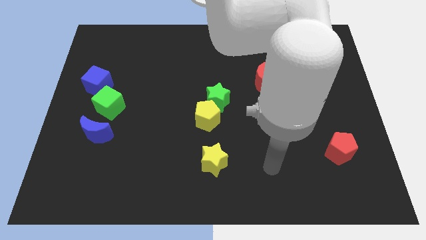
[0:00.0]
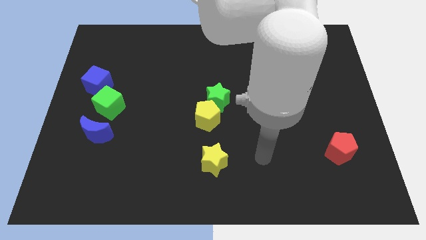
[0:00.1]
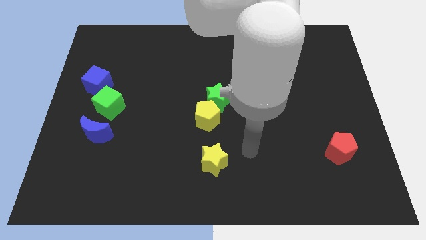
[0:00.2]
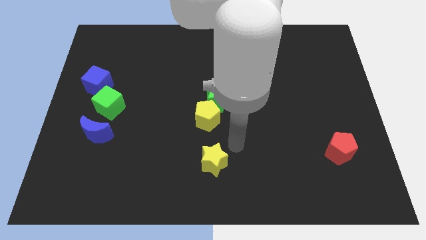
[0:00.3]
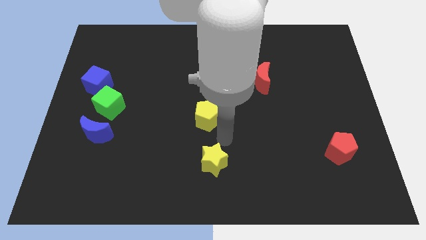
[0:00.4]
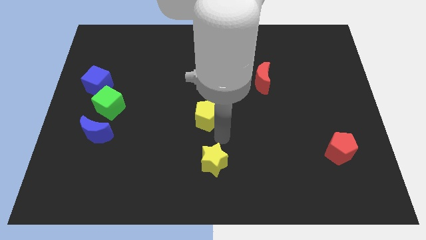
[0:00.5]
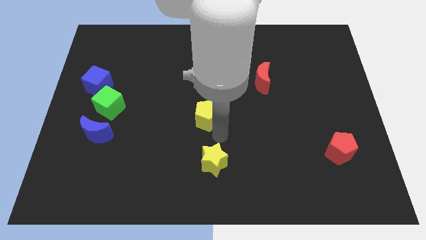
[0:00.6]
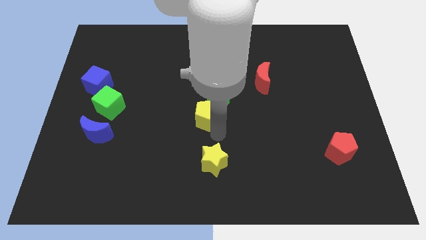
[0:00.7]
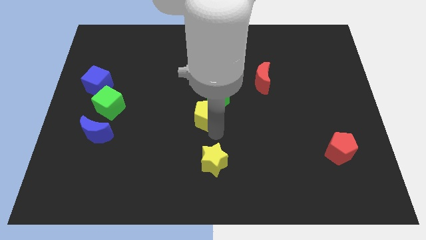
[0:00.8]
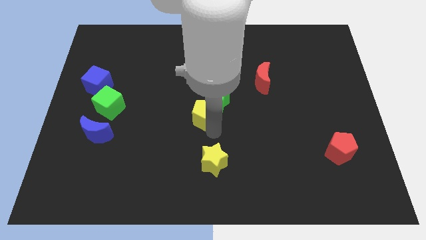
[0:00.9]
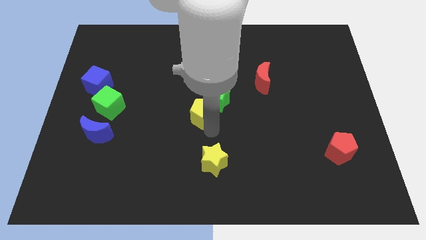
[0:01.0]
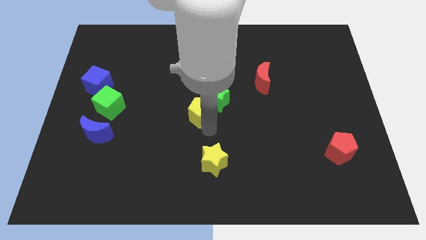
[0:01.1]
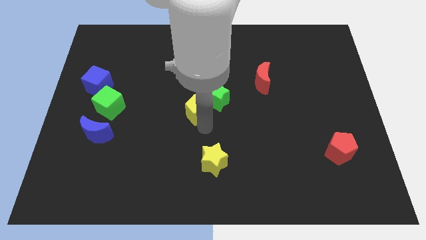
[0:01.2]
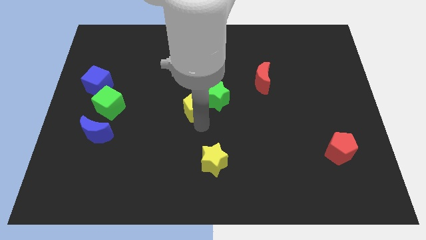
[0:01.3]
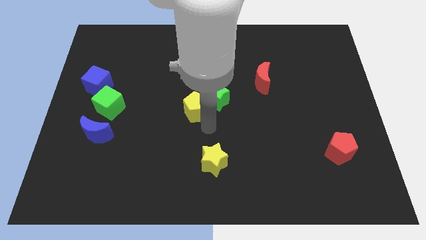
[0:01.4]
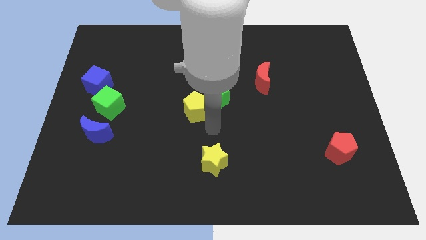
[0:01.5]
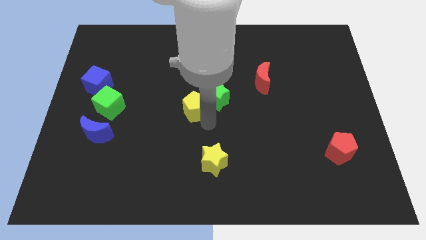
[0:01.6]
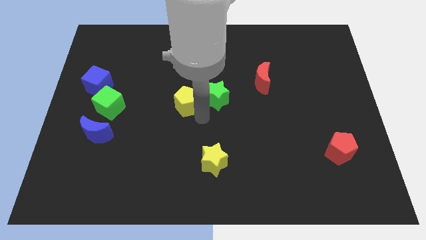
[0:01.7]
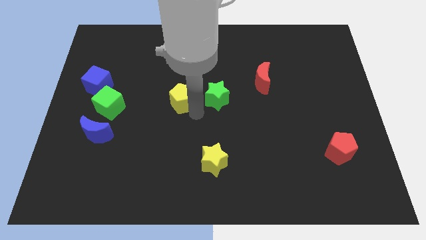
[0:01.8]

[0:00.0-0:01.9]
push the yellow pentagon up and left slightly

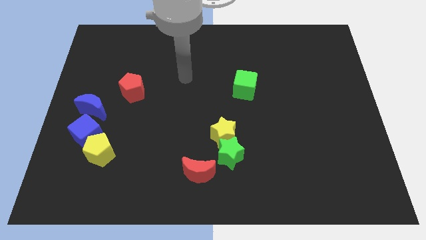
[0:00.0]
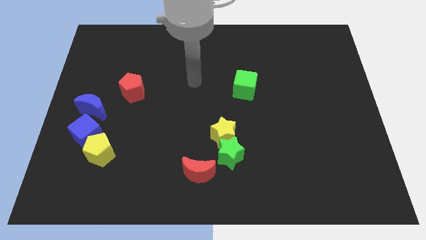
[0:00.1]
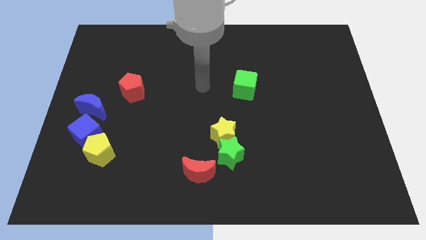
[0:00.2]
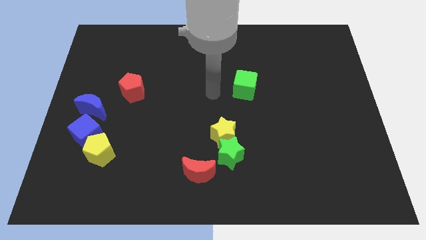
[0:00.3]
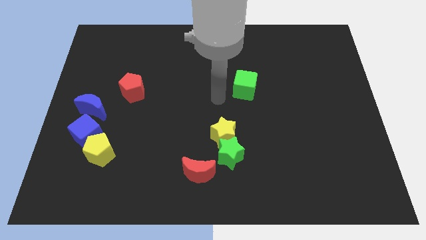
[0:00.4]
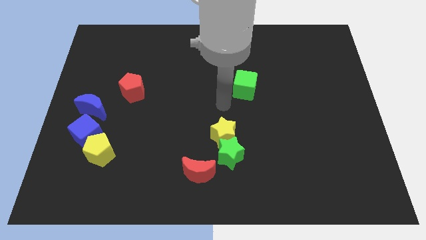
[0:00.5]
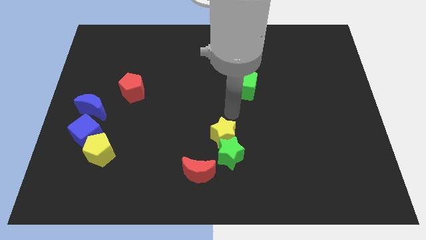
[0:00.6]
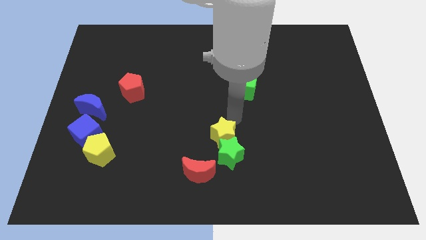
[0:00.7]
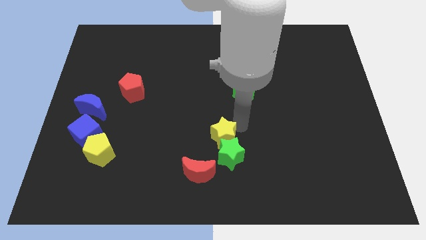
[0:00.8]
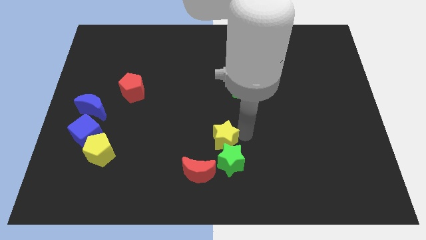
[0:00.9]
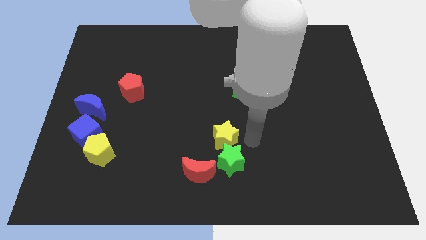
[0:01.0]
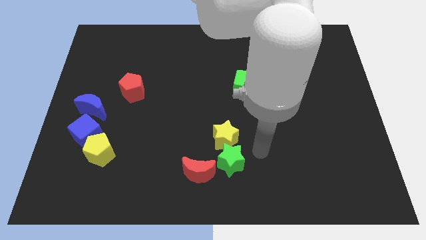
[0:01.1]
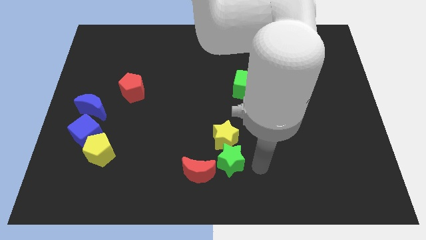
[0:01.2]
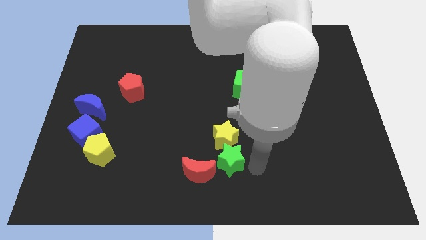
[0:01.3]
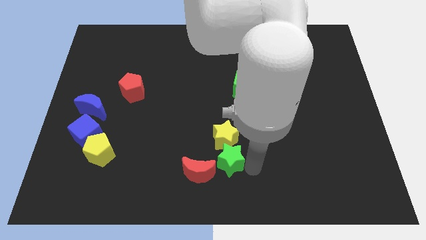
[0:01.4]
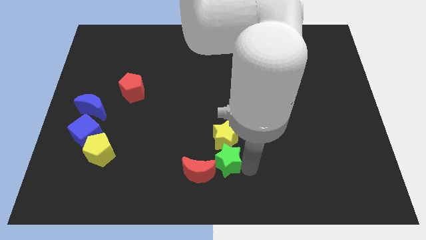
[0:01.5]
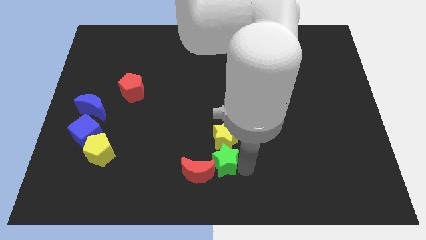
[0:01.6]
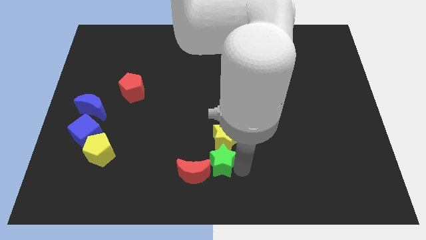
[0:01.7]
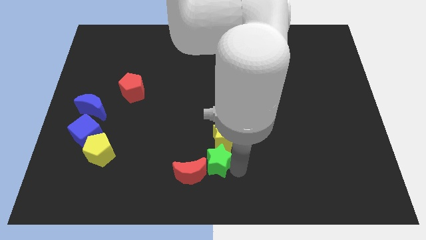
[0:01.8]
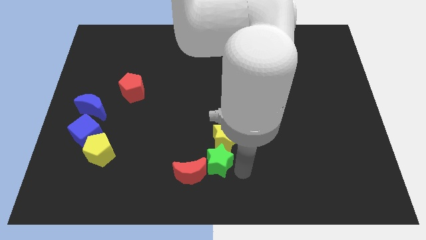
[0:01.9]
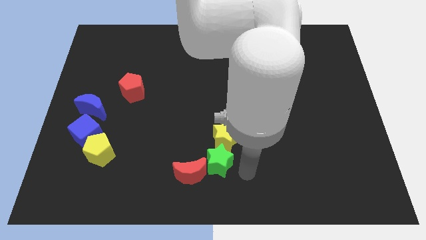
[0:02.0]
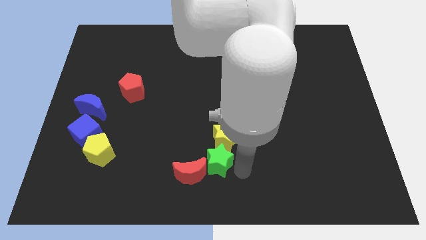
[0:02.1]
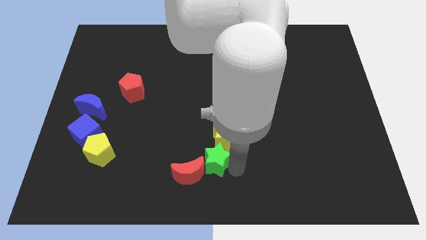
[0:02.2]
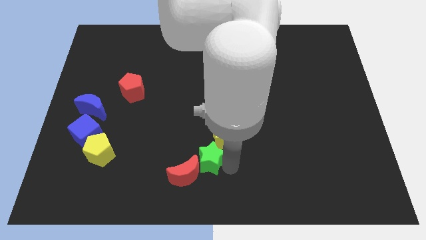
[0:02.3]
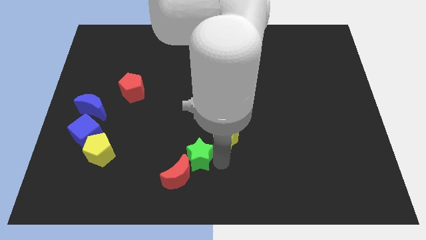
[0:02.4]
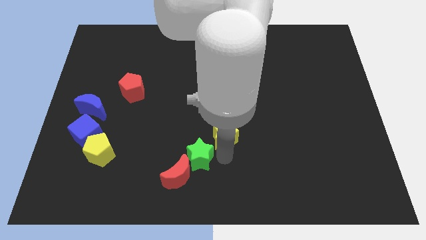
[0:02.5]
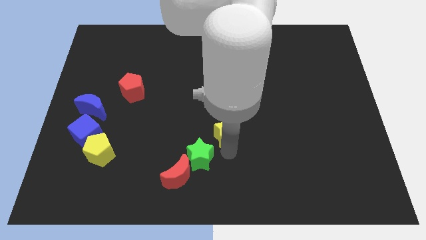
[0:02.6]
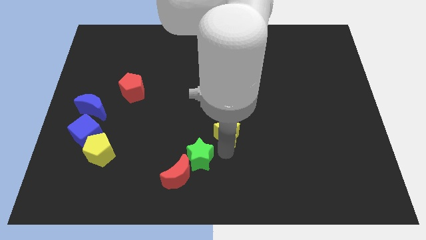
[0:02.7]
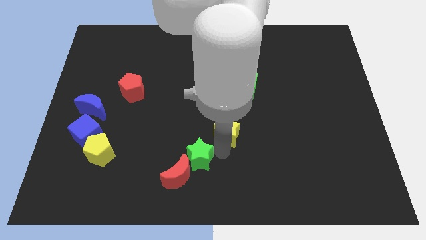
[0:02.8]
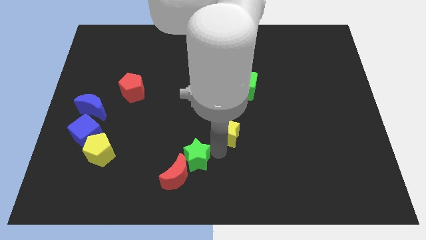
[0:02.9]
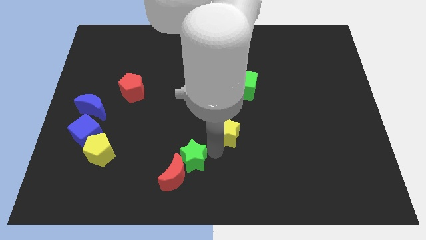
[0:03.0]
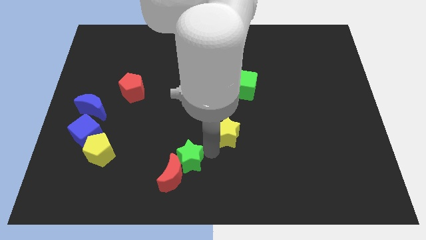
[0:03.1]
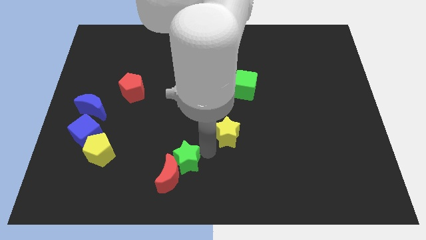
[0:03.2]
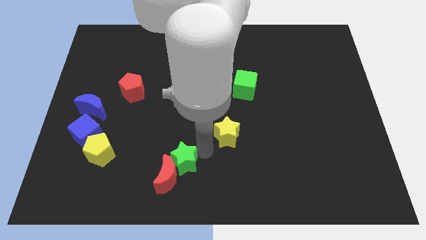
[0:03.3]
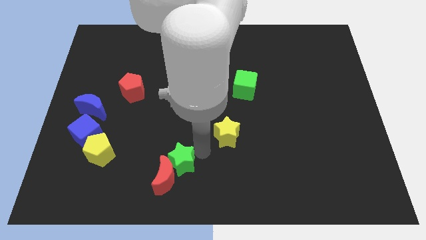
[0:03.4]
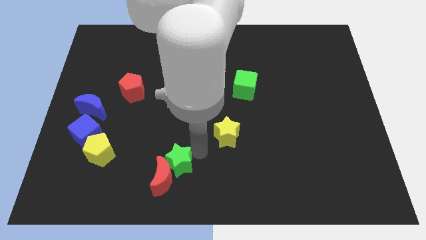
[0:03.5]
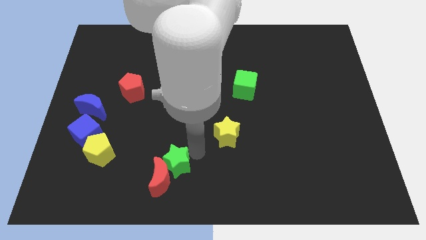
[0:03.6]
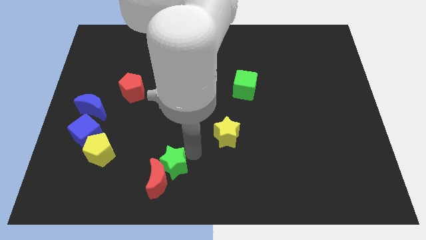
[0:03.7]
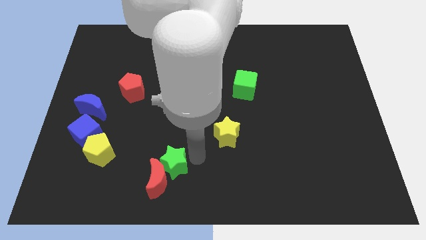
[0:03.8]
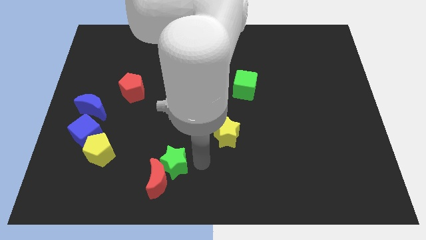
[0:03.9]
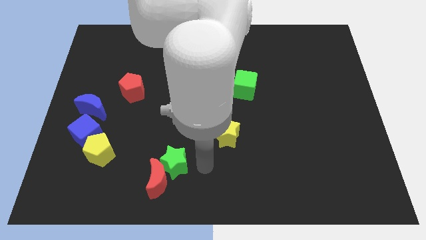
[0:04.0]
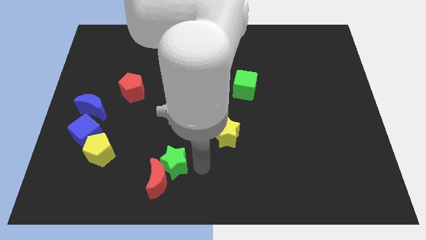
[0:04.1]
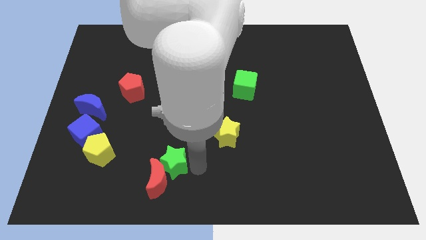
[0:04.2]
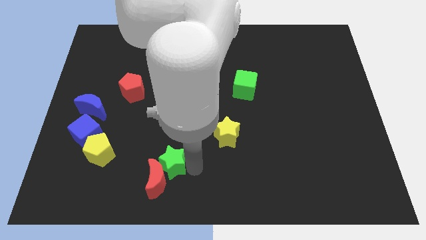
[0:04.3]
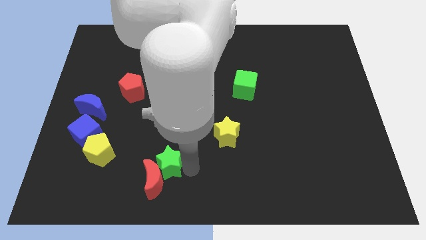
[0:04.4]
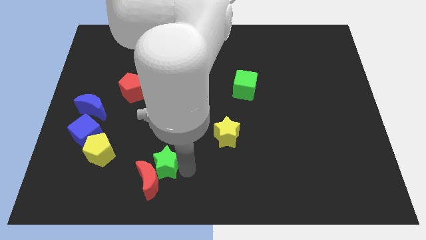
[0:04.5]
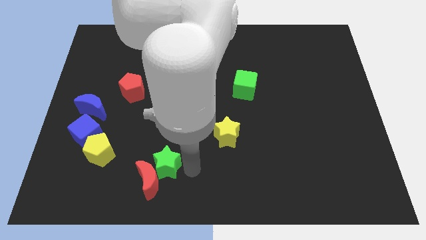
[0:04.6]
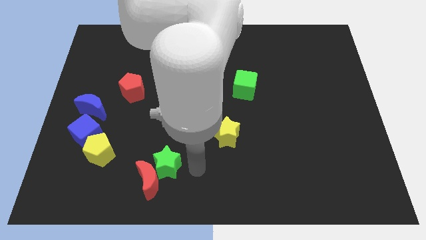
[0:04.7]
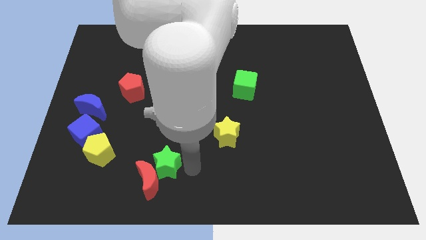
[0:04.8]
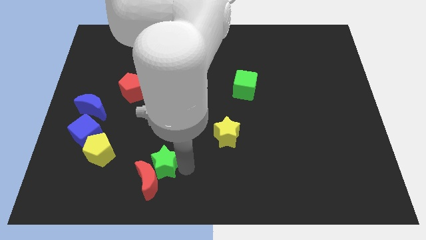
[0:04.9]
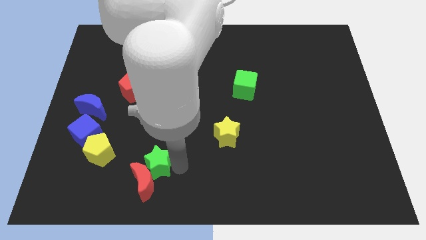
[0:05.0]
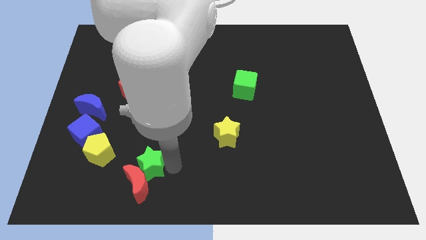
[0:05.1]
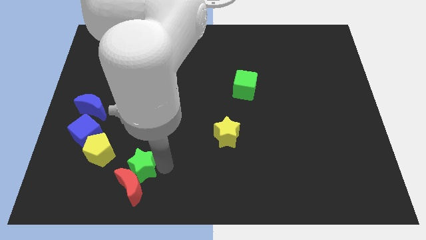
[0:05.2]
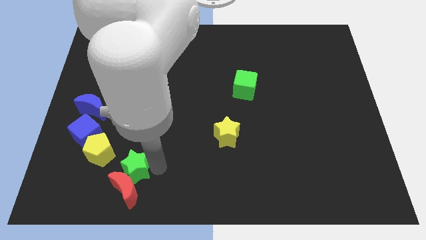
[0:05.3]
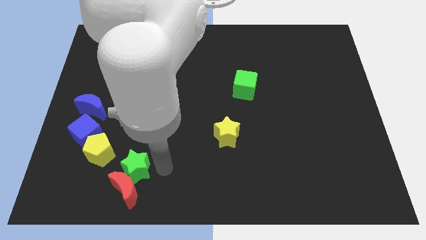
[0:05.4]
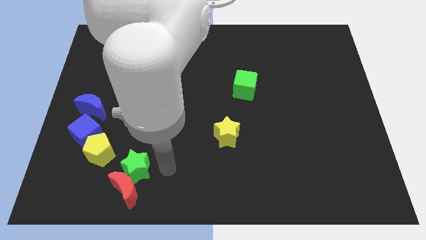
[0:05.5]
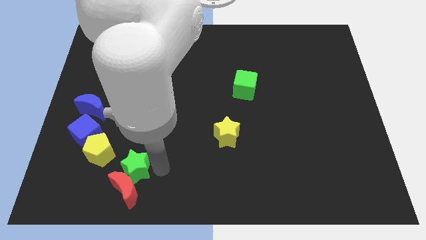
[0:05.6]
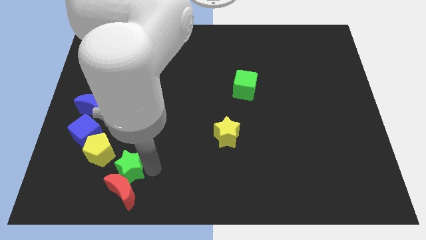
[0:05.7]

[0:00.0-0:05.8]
push the green star to the left

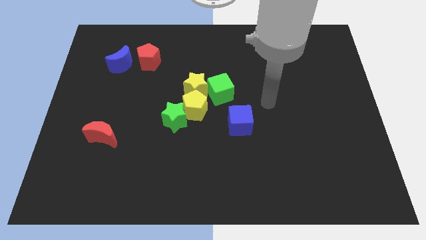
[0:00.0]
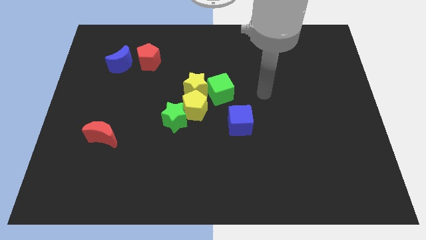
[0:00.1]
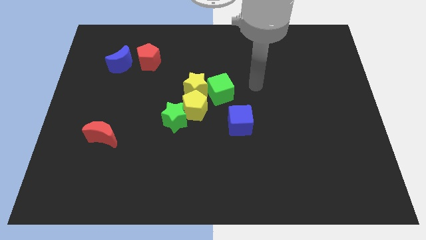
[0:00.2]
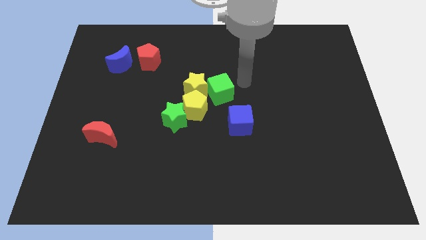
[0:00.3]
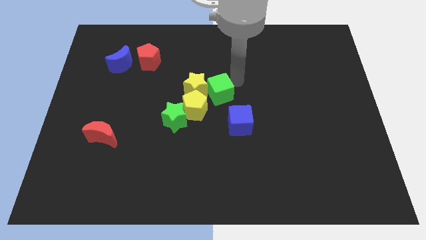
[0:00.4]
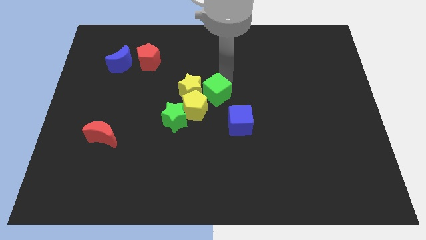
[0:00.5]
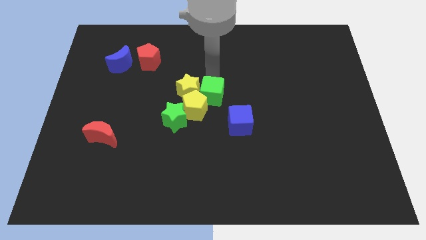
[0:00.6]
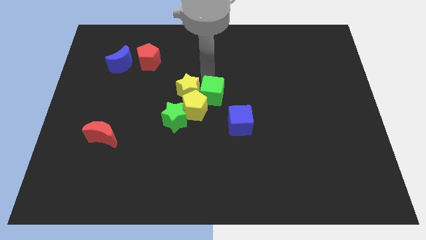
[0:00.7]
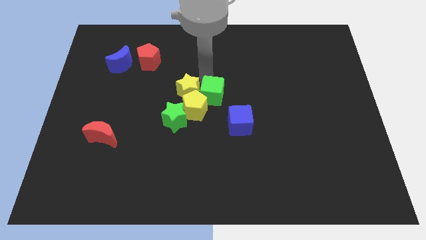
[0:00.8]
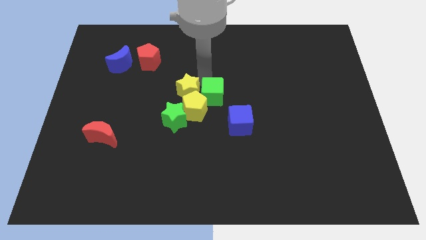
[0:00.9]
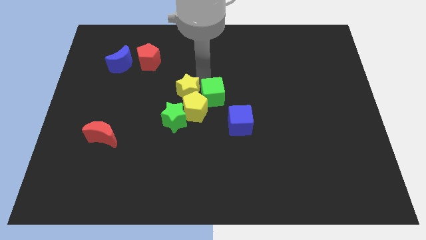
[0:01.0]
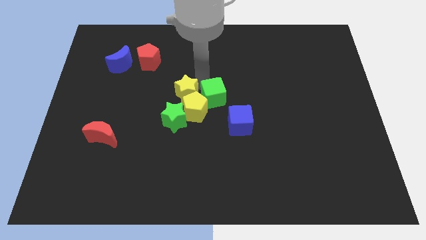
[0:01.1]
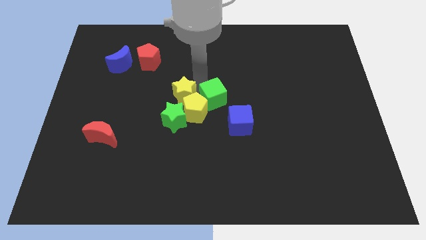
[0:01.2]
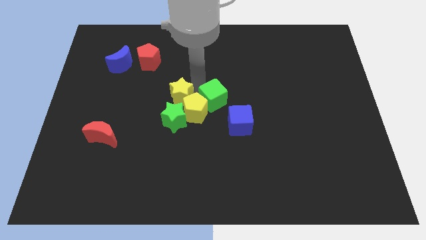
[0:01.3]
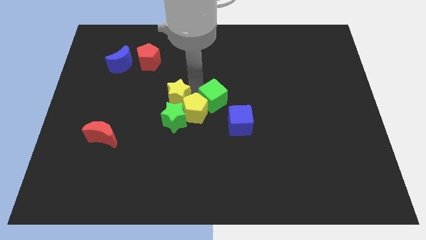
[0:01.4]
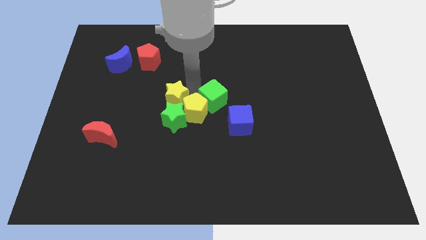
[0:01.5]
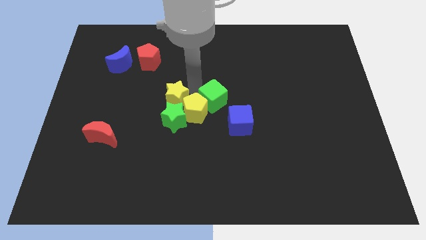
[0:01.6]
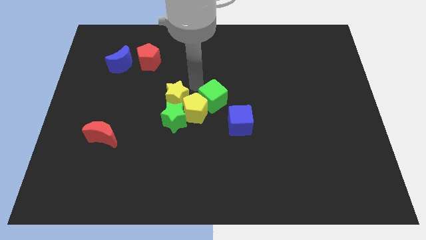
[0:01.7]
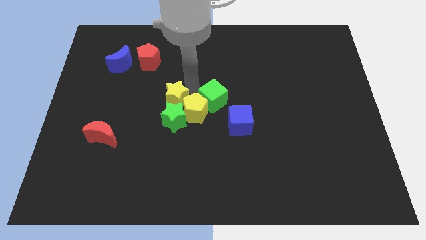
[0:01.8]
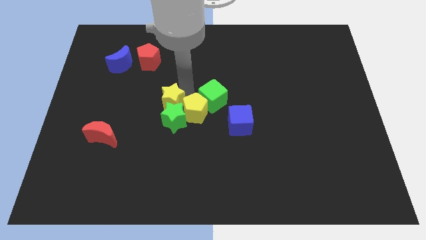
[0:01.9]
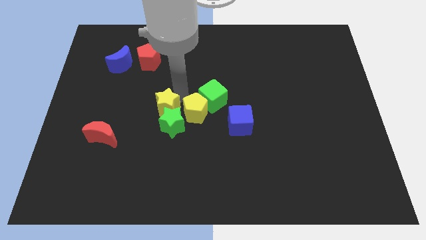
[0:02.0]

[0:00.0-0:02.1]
push the yellow star a little diagonally down and to the left
